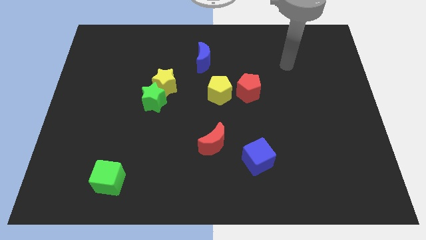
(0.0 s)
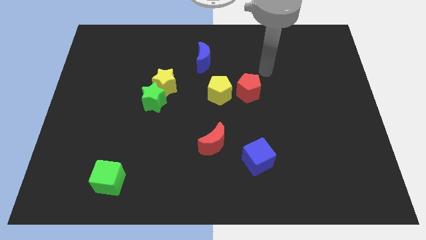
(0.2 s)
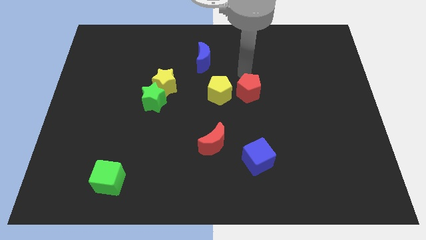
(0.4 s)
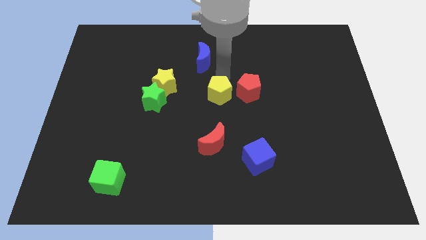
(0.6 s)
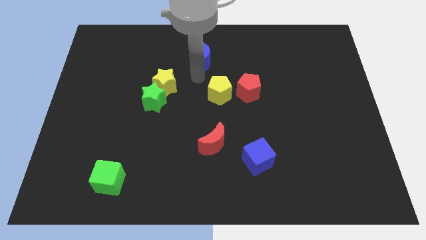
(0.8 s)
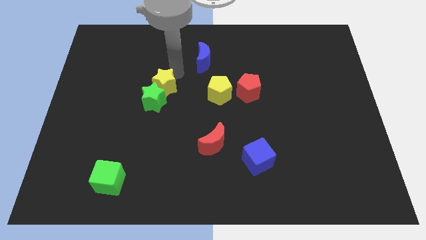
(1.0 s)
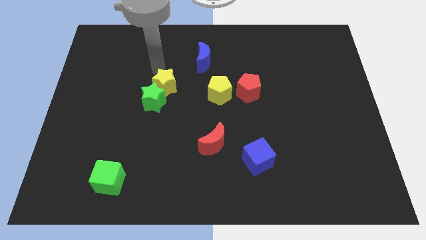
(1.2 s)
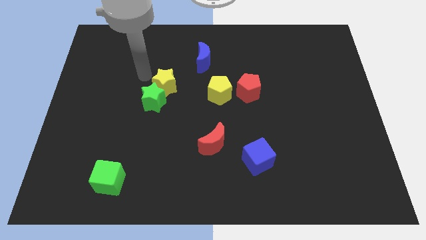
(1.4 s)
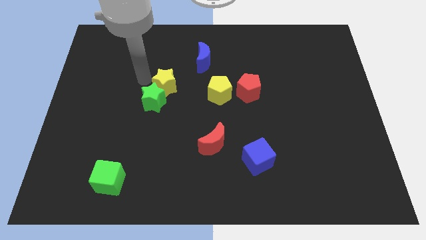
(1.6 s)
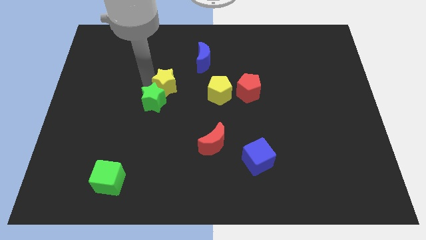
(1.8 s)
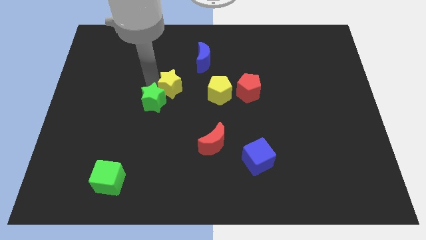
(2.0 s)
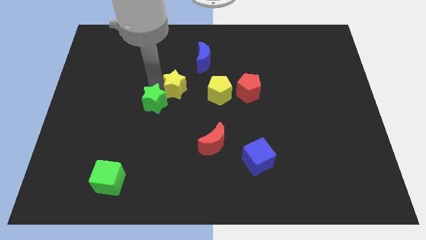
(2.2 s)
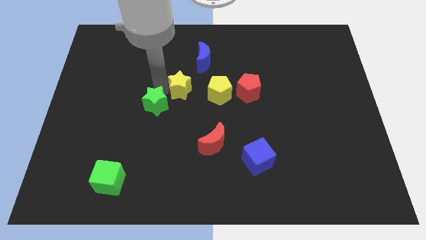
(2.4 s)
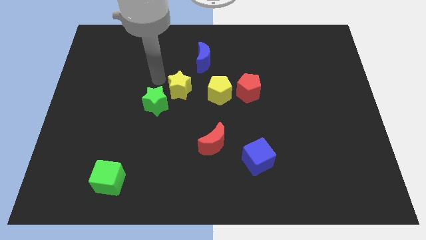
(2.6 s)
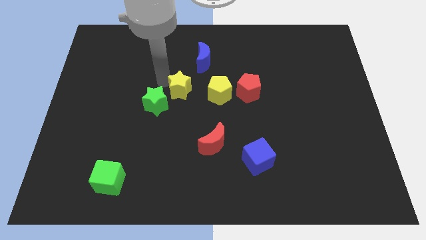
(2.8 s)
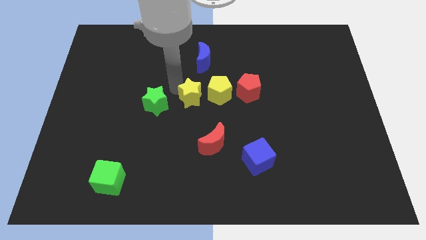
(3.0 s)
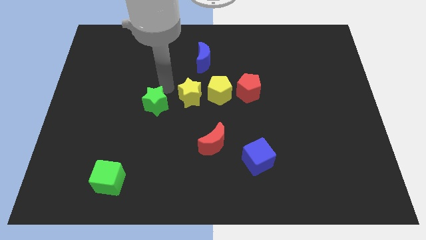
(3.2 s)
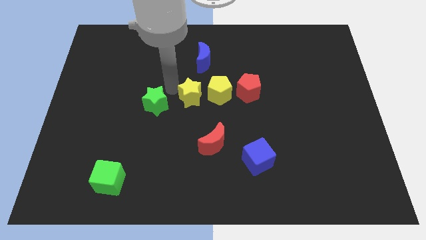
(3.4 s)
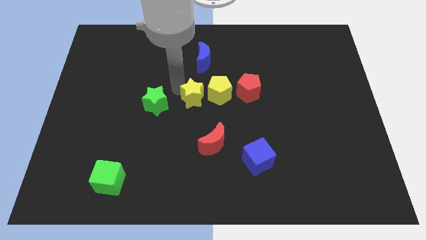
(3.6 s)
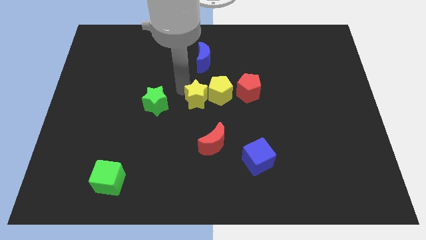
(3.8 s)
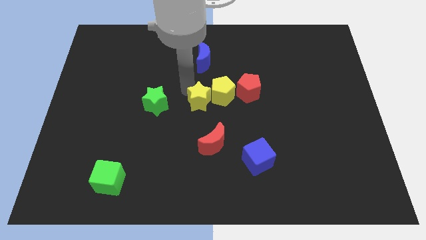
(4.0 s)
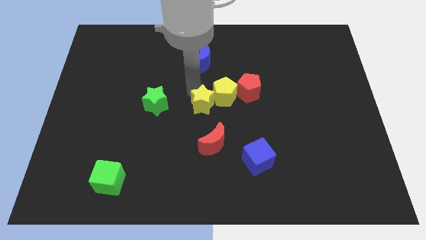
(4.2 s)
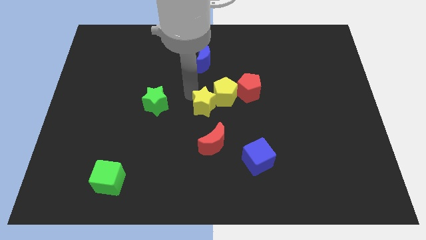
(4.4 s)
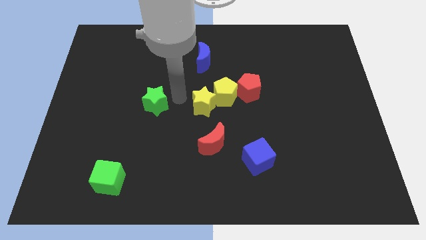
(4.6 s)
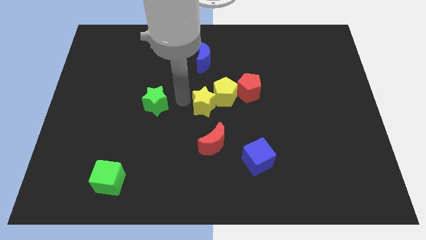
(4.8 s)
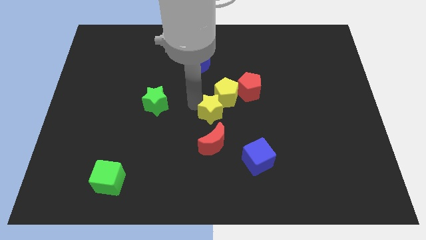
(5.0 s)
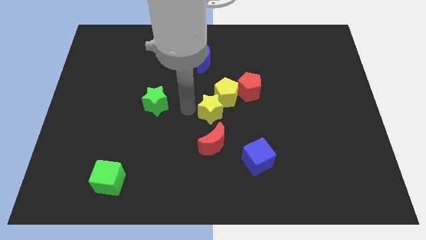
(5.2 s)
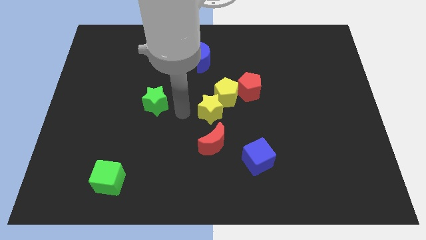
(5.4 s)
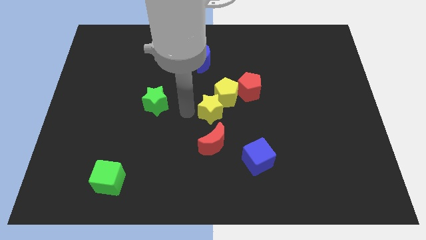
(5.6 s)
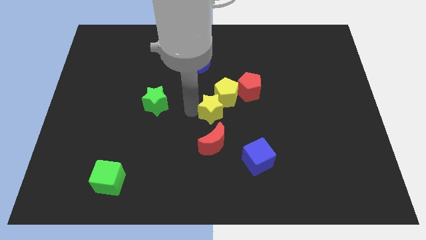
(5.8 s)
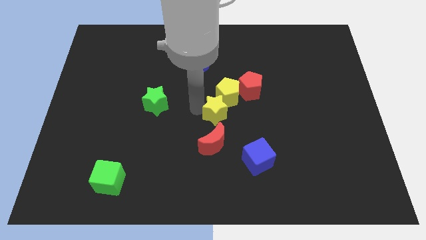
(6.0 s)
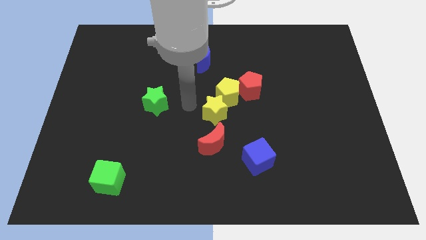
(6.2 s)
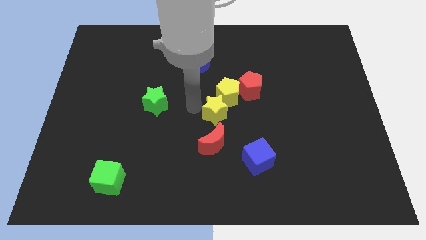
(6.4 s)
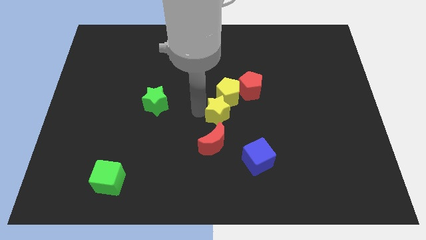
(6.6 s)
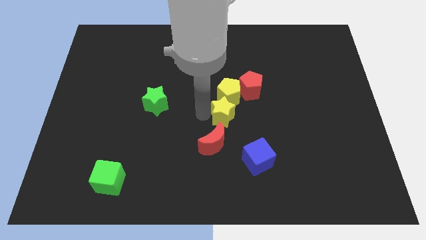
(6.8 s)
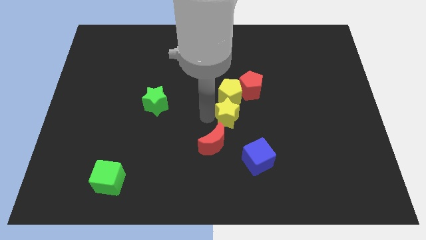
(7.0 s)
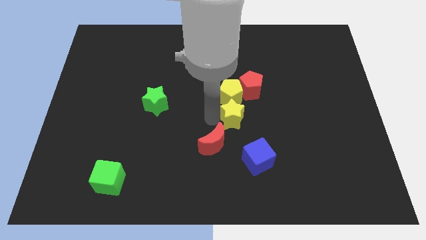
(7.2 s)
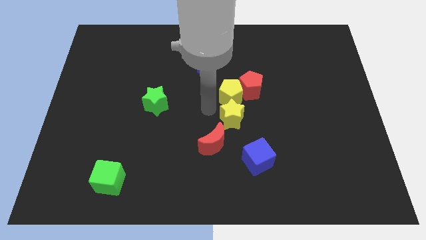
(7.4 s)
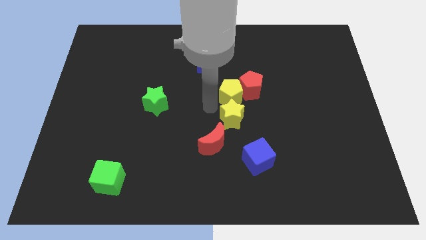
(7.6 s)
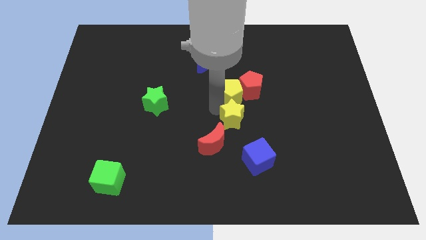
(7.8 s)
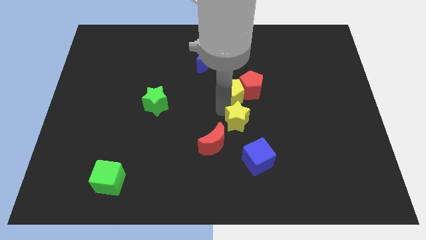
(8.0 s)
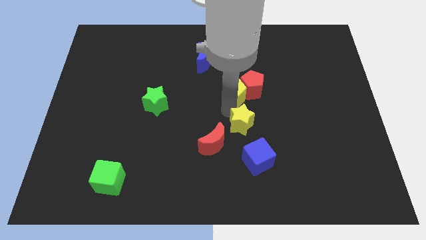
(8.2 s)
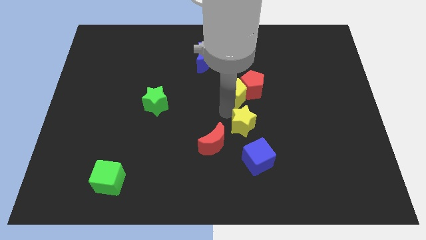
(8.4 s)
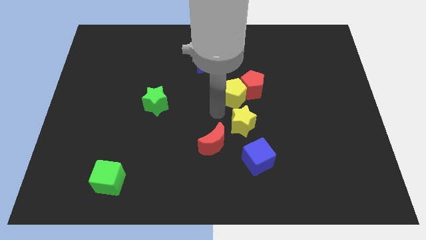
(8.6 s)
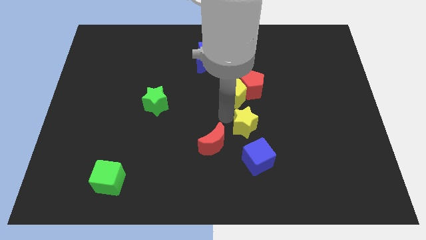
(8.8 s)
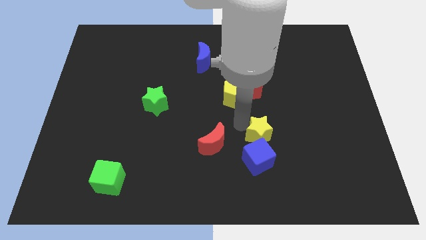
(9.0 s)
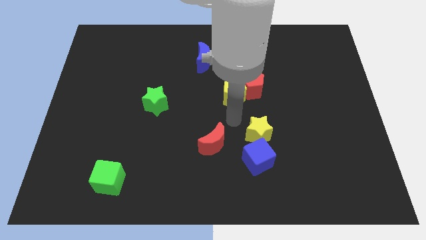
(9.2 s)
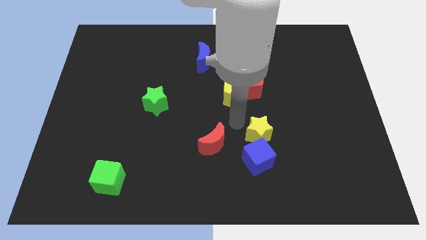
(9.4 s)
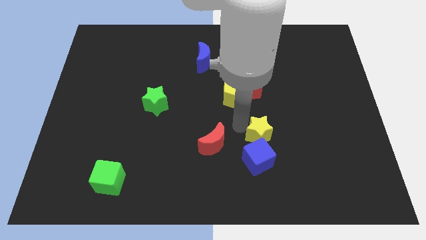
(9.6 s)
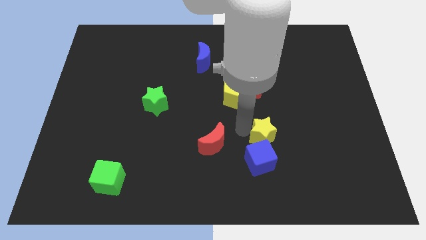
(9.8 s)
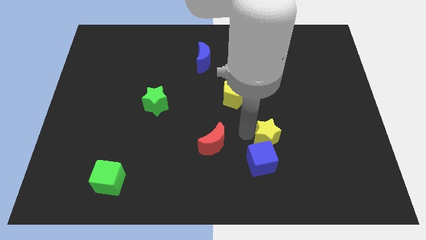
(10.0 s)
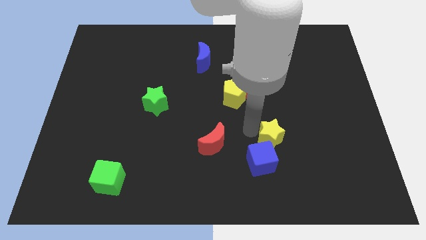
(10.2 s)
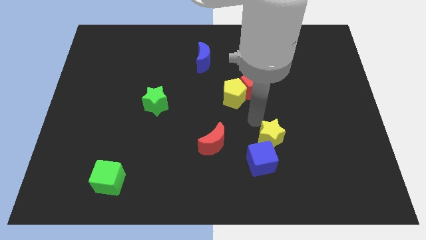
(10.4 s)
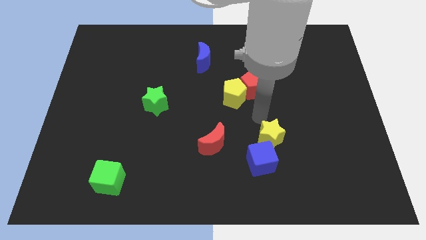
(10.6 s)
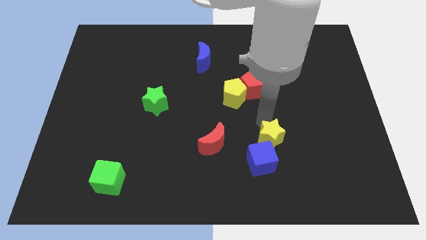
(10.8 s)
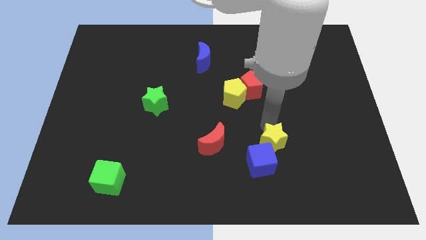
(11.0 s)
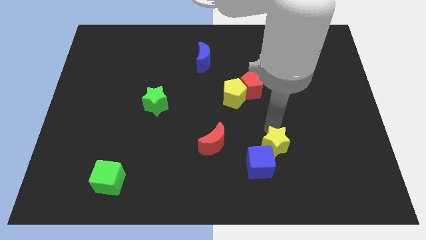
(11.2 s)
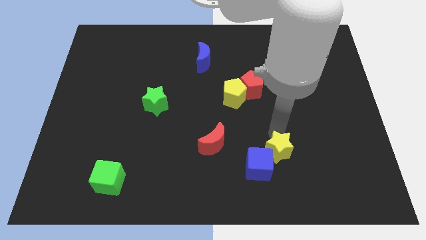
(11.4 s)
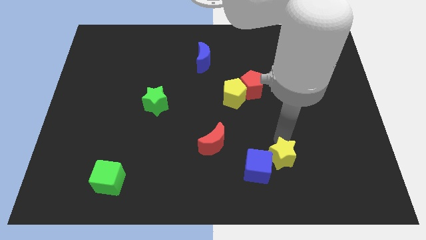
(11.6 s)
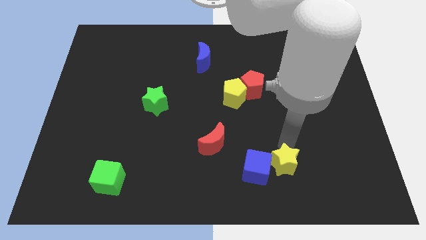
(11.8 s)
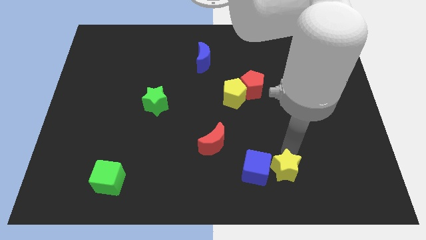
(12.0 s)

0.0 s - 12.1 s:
put the yellow star to the bottom right side of the blue cube

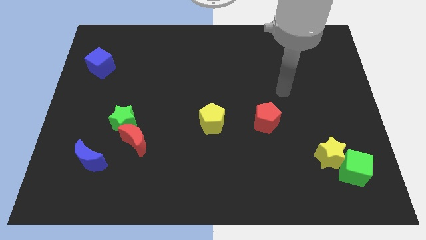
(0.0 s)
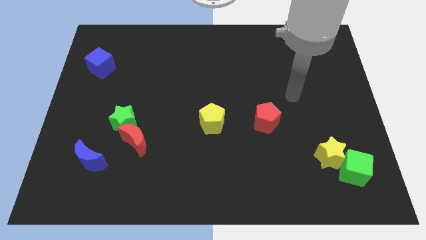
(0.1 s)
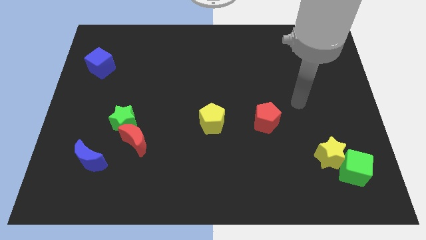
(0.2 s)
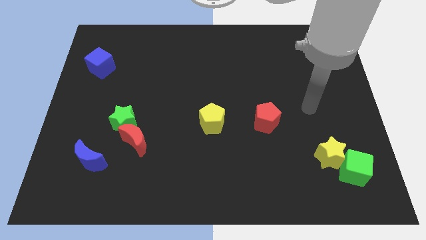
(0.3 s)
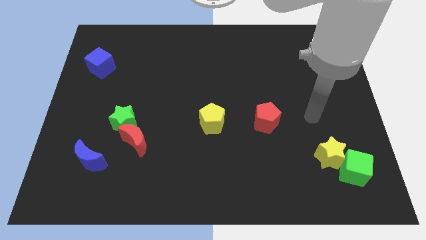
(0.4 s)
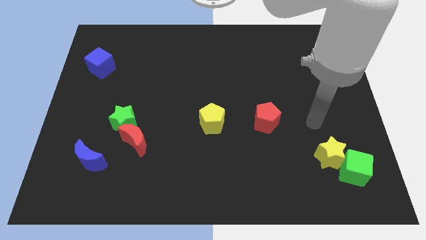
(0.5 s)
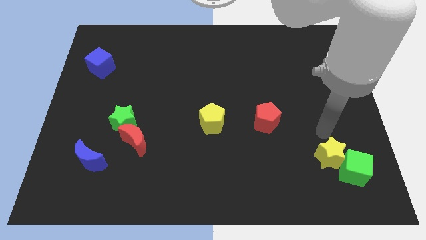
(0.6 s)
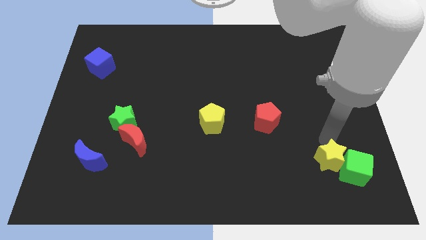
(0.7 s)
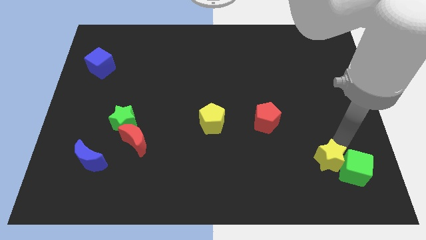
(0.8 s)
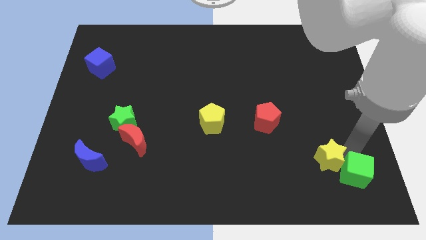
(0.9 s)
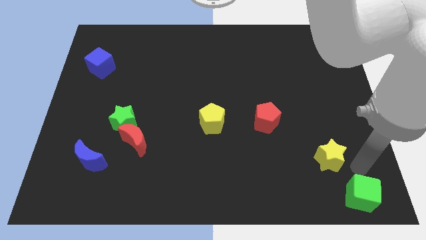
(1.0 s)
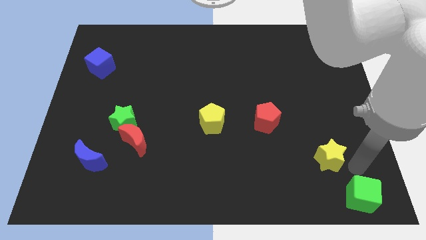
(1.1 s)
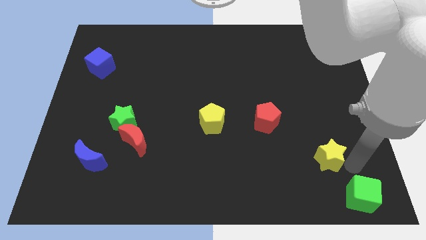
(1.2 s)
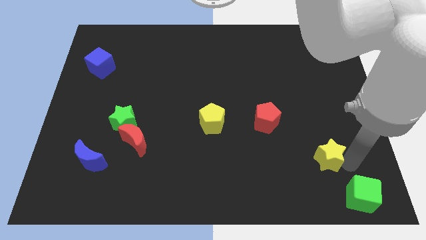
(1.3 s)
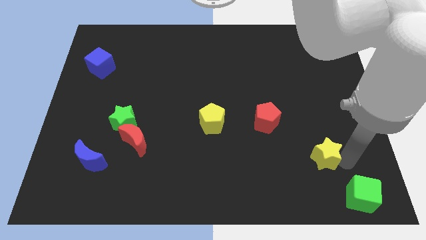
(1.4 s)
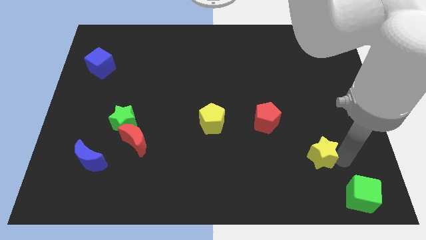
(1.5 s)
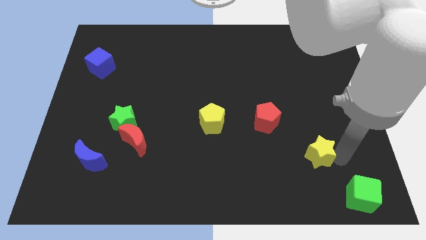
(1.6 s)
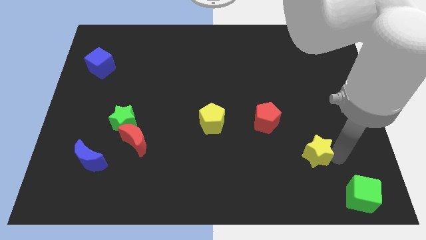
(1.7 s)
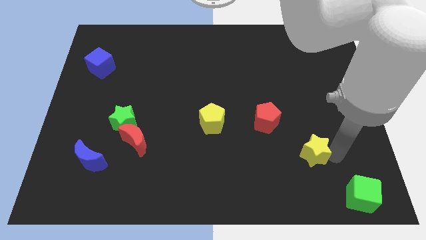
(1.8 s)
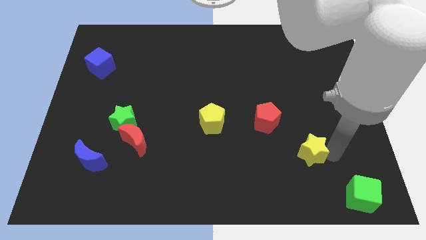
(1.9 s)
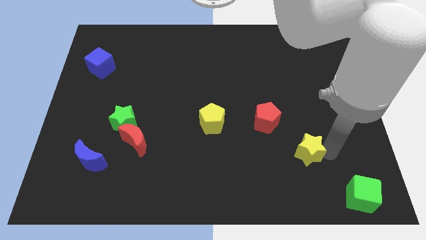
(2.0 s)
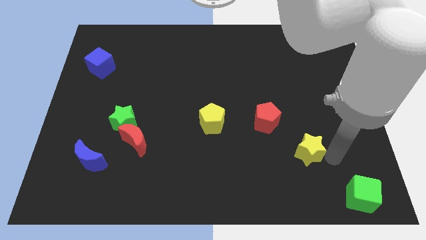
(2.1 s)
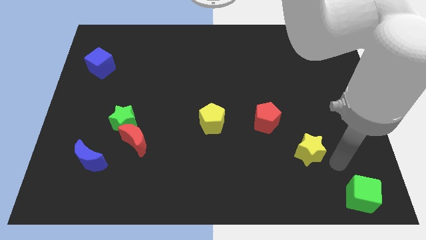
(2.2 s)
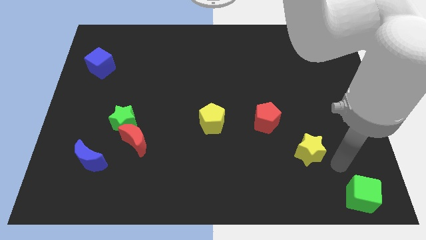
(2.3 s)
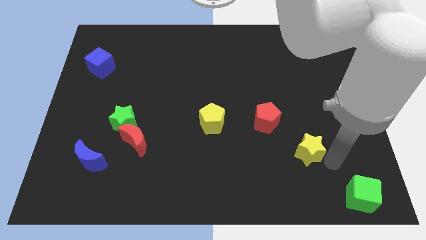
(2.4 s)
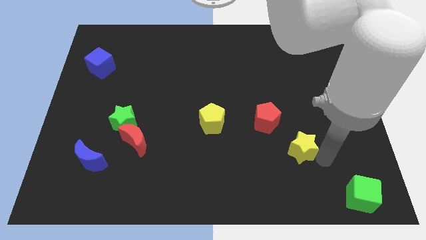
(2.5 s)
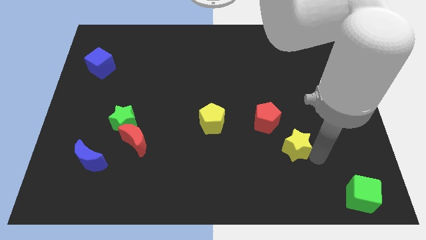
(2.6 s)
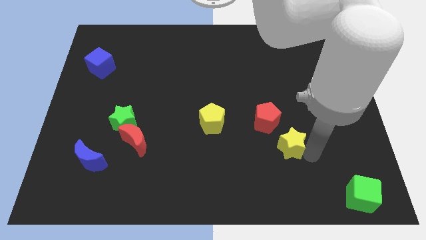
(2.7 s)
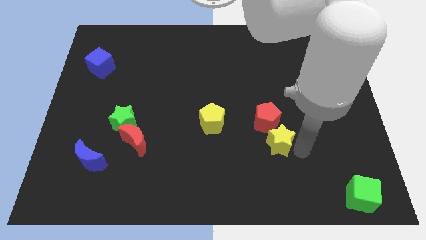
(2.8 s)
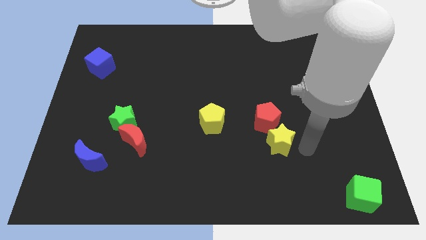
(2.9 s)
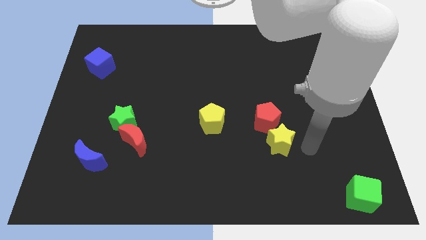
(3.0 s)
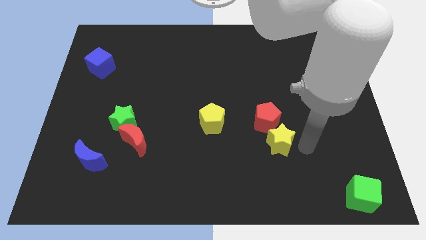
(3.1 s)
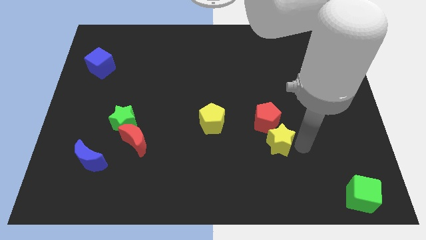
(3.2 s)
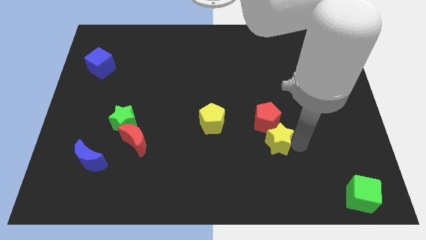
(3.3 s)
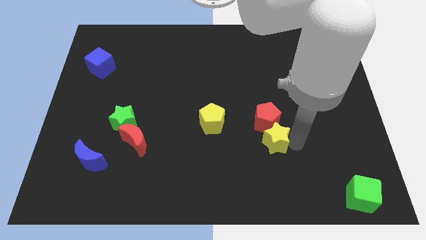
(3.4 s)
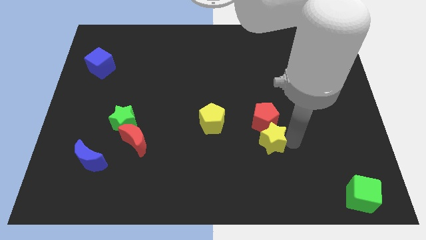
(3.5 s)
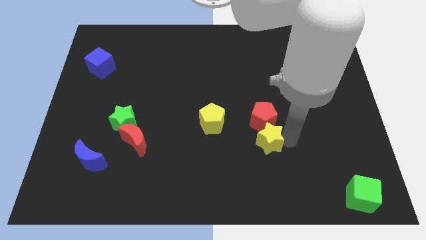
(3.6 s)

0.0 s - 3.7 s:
move the yellow star to the bottom left side of the red pentagon
